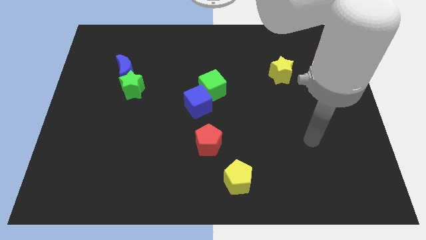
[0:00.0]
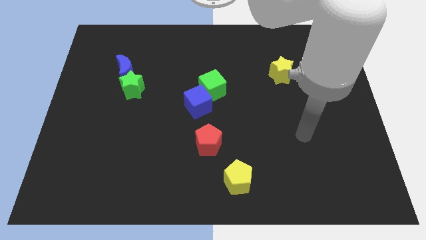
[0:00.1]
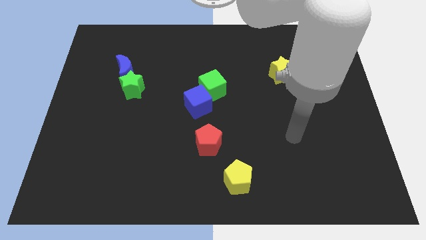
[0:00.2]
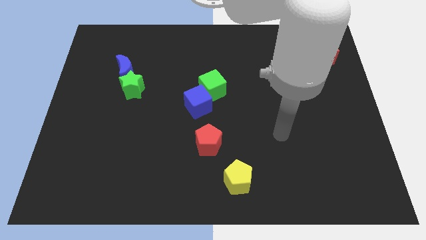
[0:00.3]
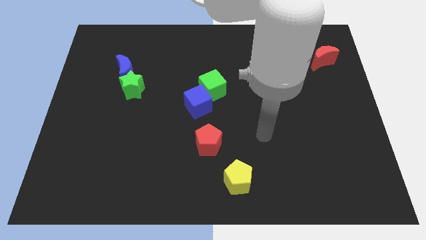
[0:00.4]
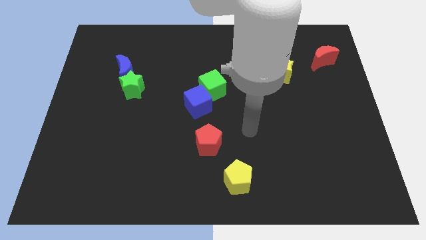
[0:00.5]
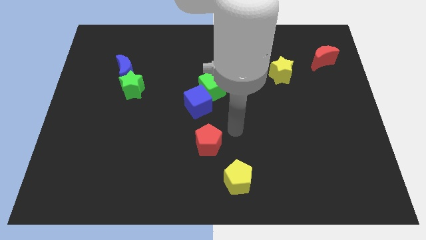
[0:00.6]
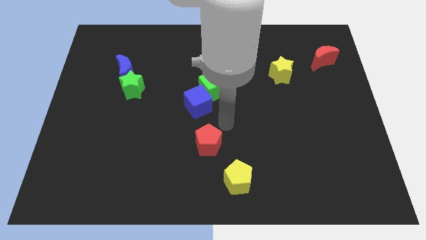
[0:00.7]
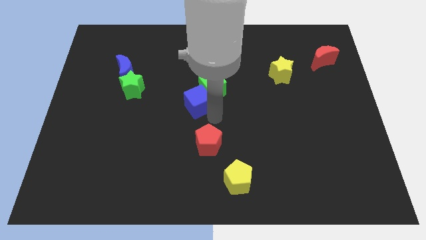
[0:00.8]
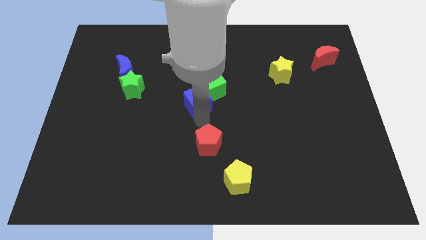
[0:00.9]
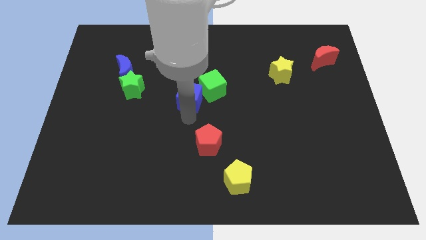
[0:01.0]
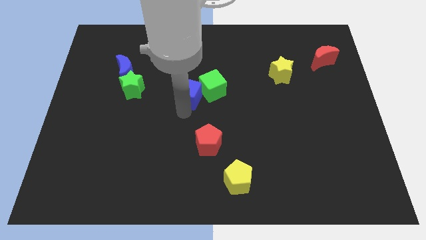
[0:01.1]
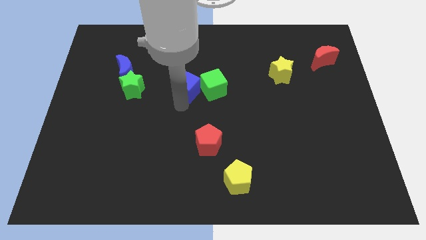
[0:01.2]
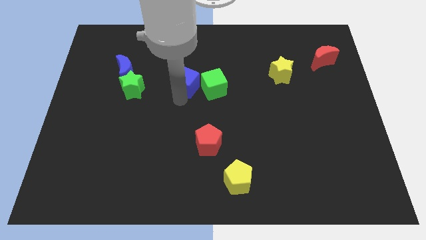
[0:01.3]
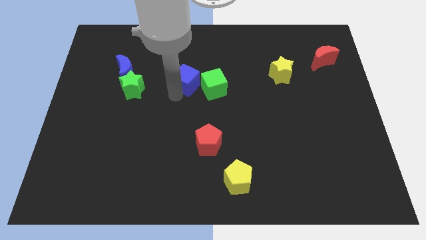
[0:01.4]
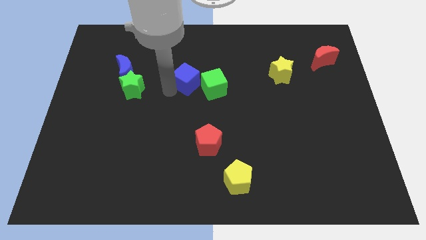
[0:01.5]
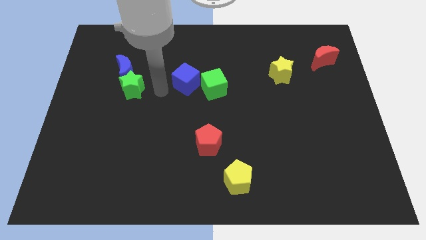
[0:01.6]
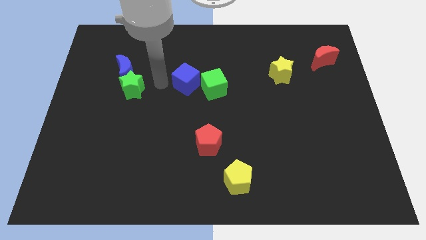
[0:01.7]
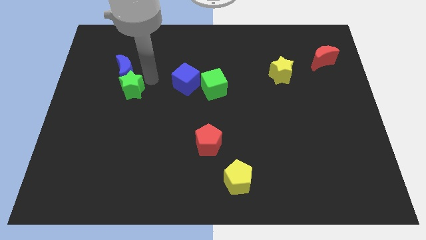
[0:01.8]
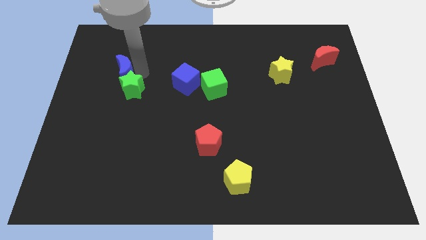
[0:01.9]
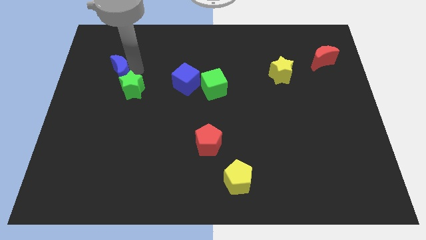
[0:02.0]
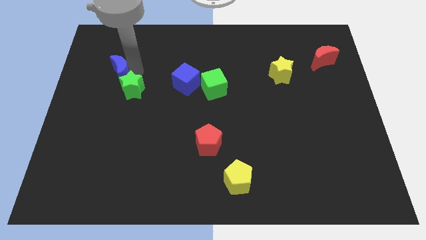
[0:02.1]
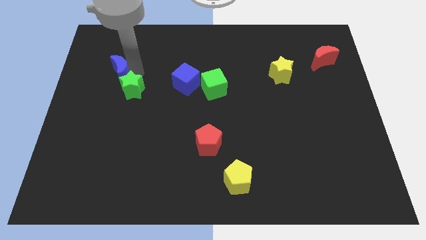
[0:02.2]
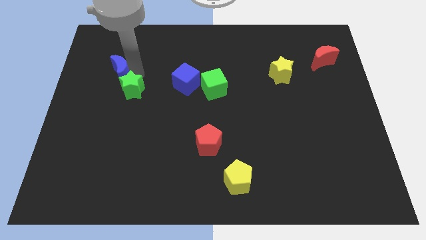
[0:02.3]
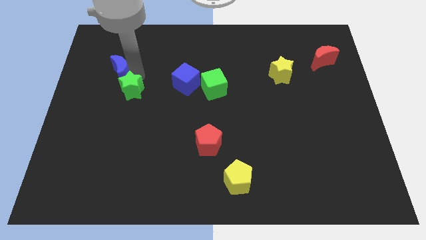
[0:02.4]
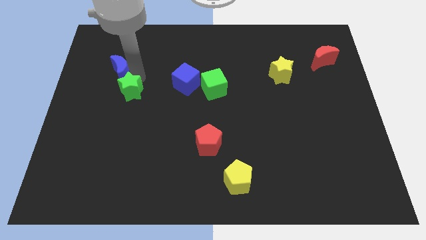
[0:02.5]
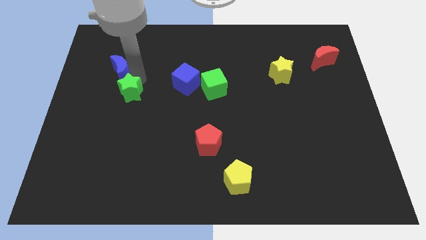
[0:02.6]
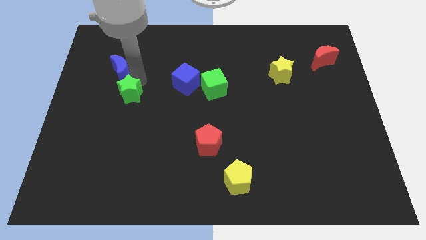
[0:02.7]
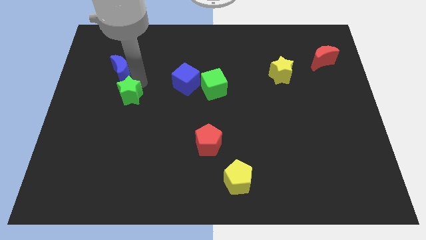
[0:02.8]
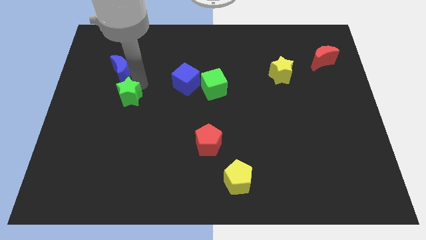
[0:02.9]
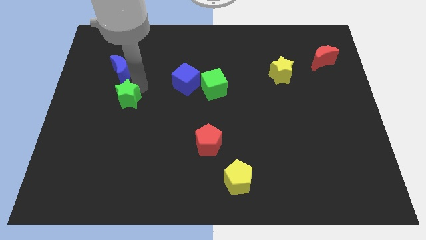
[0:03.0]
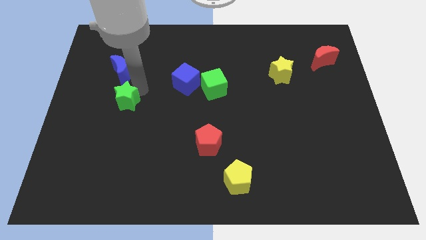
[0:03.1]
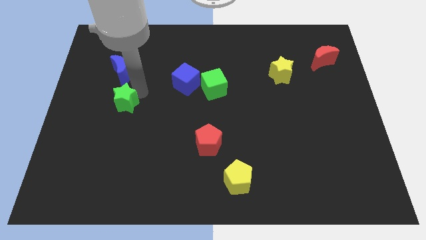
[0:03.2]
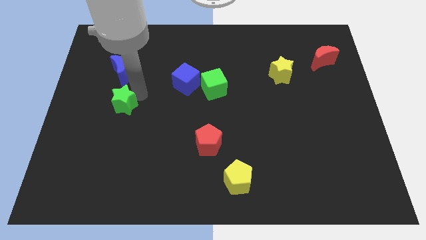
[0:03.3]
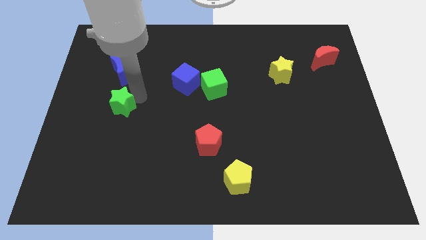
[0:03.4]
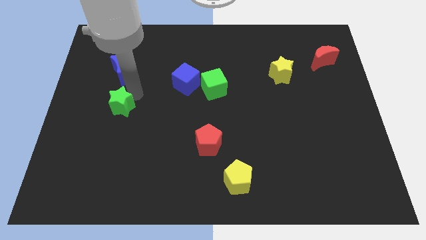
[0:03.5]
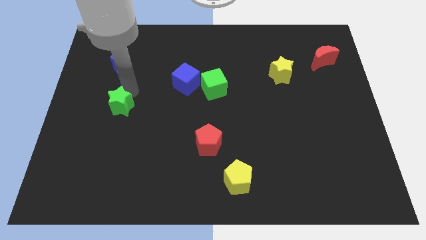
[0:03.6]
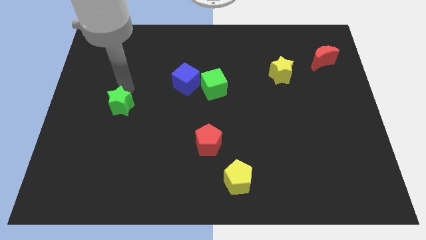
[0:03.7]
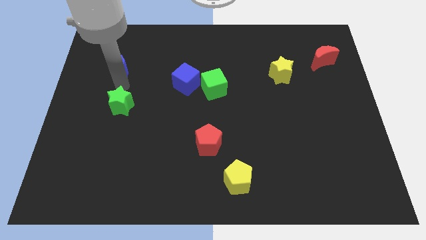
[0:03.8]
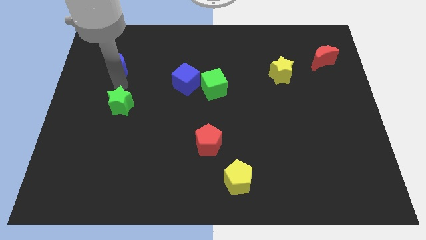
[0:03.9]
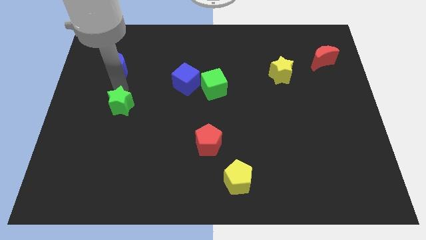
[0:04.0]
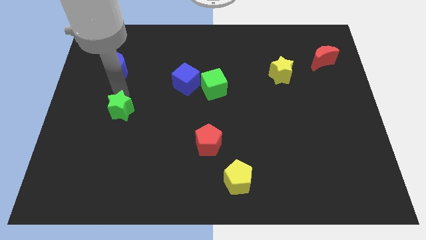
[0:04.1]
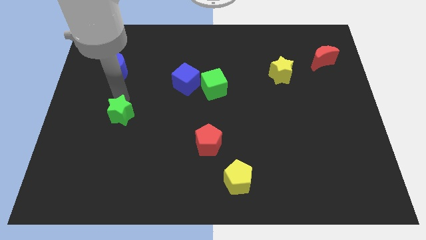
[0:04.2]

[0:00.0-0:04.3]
slide the green star downwards a little bit

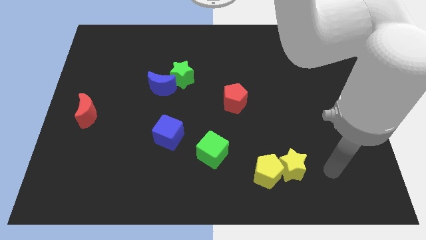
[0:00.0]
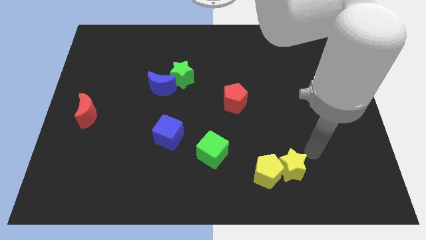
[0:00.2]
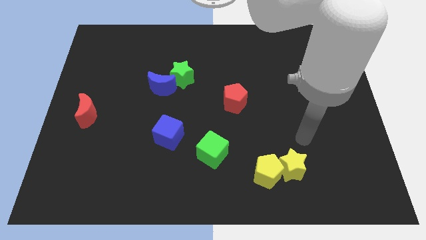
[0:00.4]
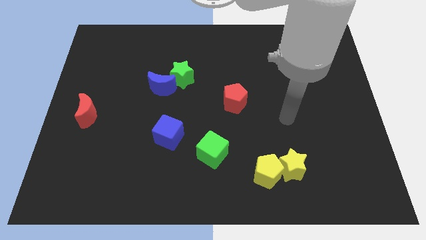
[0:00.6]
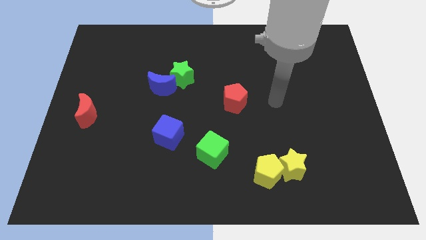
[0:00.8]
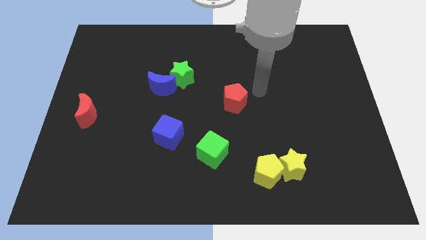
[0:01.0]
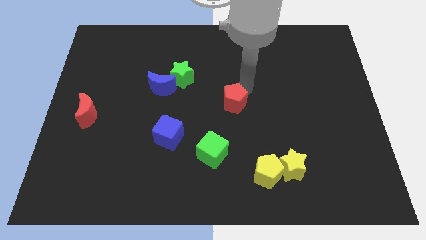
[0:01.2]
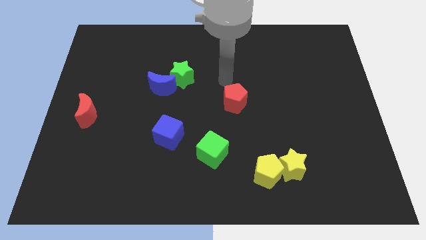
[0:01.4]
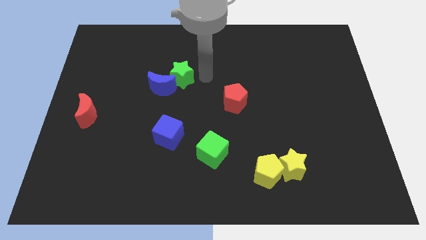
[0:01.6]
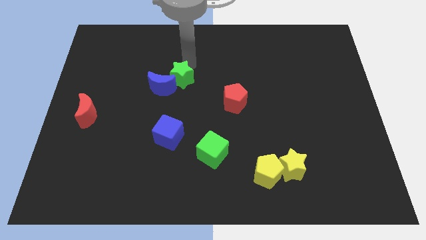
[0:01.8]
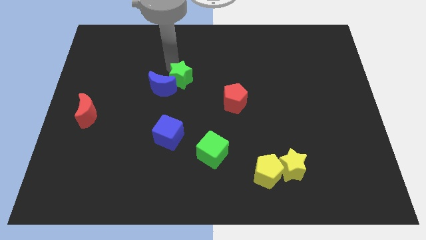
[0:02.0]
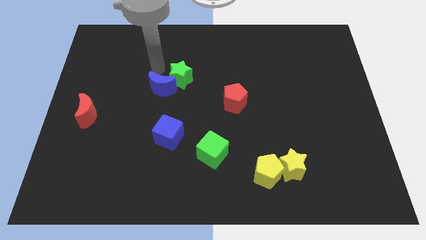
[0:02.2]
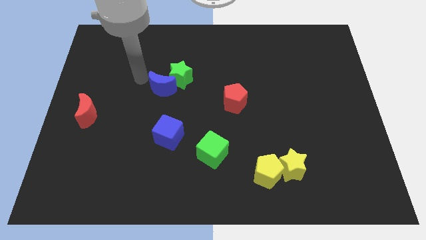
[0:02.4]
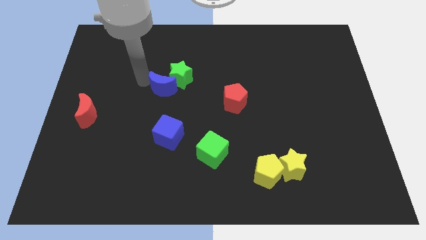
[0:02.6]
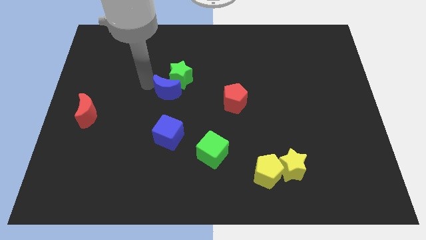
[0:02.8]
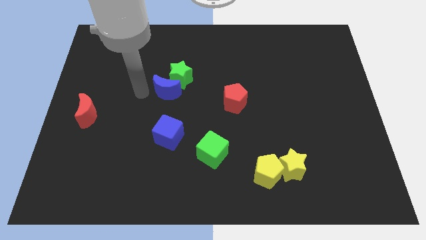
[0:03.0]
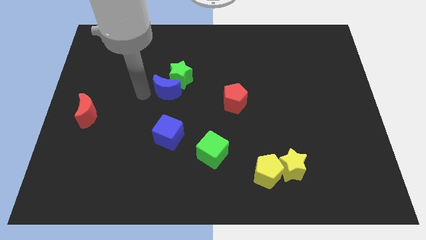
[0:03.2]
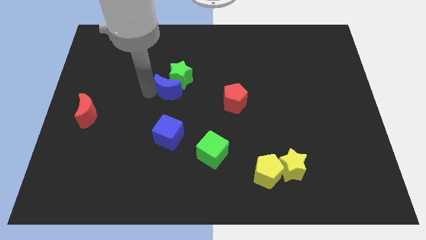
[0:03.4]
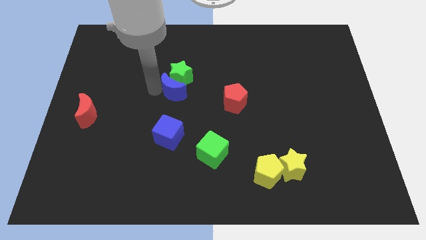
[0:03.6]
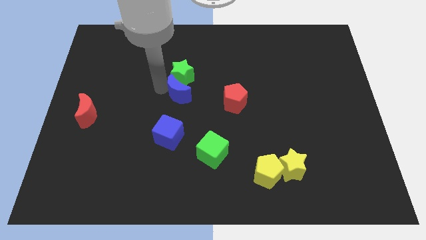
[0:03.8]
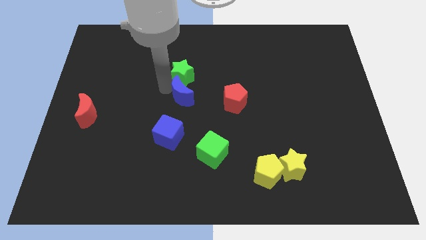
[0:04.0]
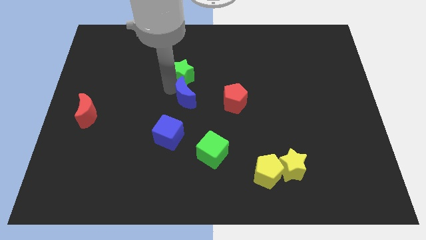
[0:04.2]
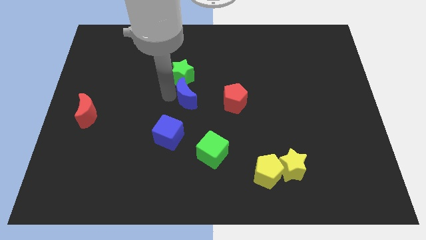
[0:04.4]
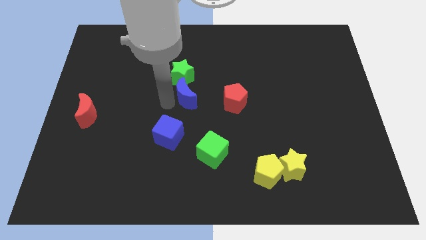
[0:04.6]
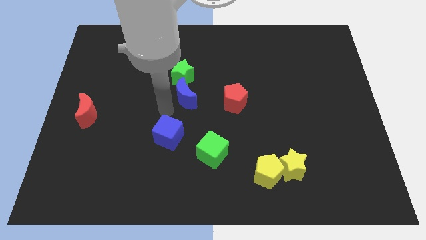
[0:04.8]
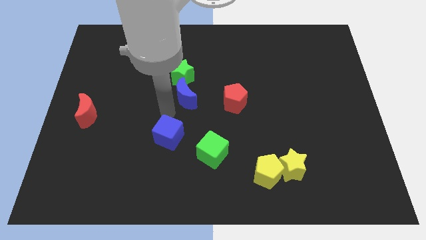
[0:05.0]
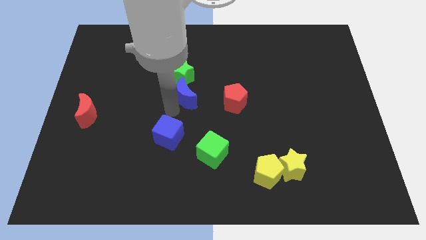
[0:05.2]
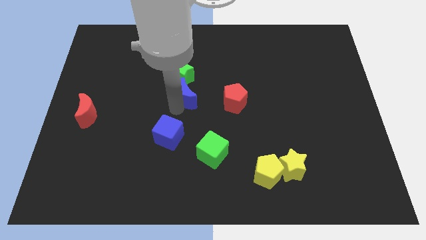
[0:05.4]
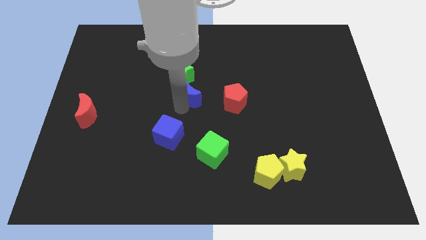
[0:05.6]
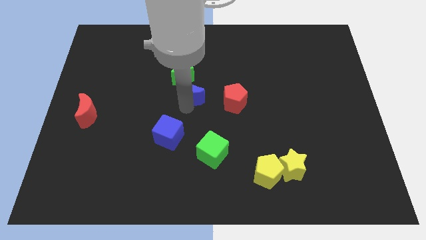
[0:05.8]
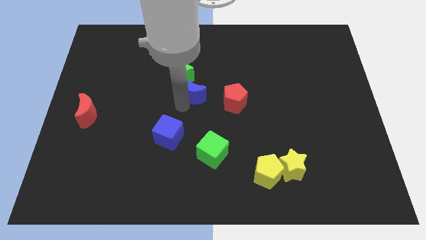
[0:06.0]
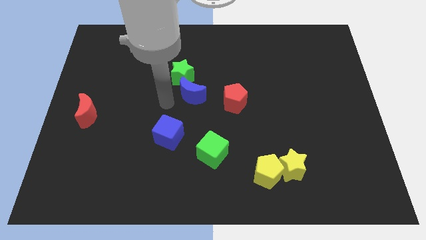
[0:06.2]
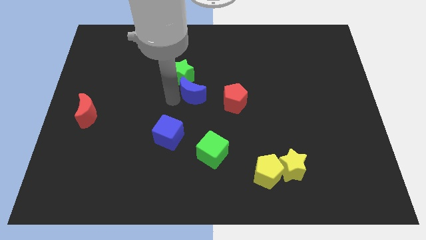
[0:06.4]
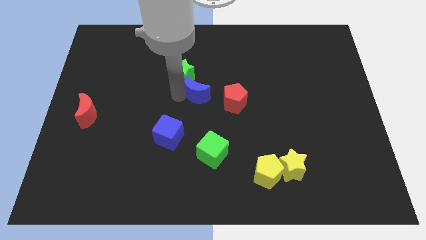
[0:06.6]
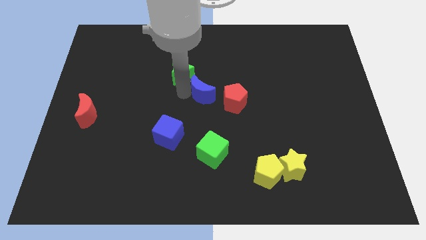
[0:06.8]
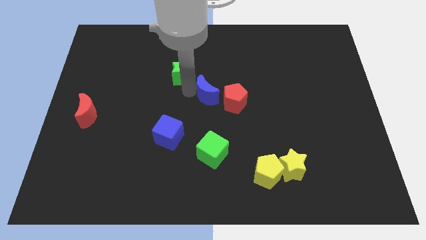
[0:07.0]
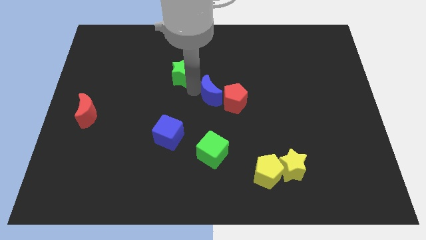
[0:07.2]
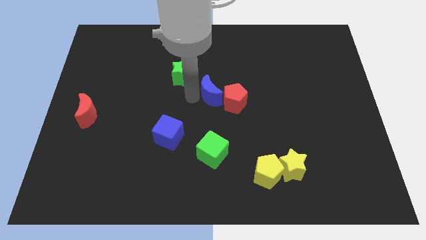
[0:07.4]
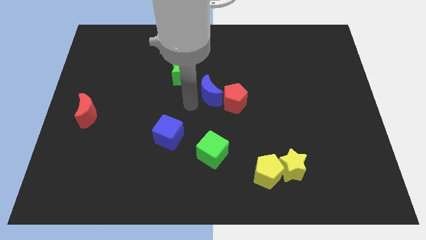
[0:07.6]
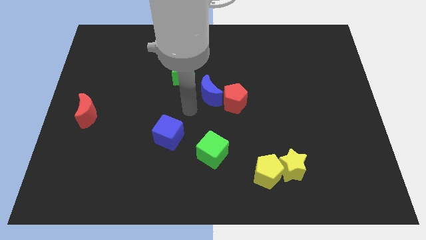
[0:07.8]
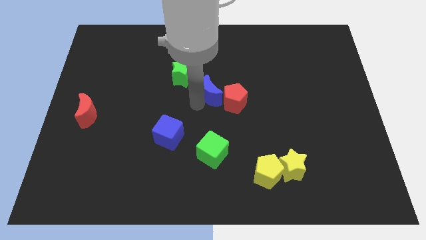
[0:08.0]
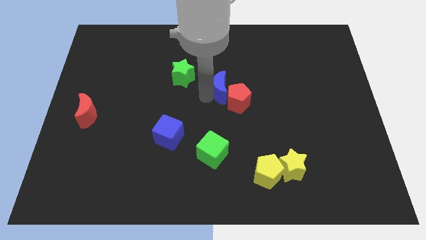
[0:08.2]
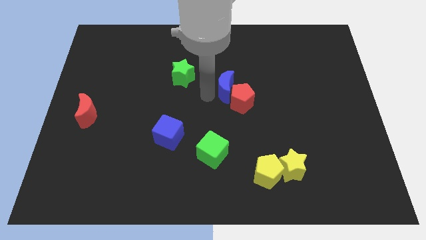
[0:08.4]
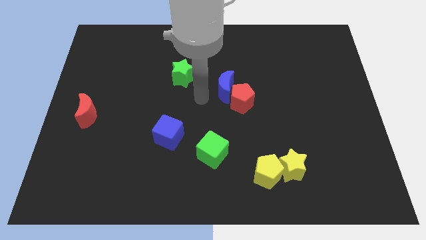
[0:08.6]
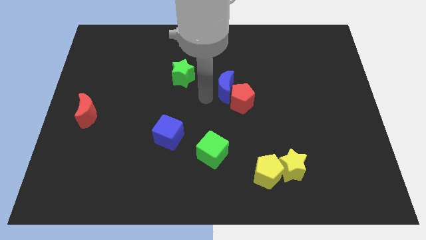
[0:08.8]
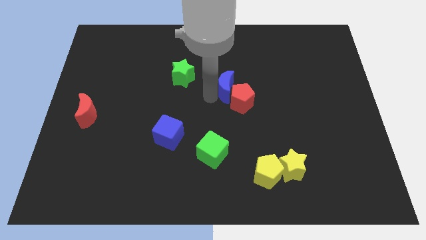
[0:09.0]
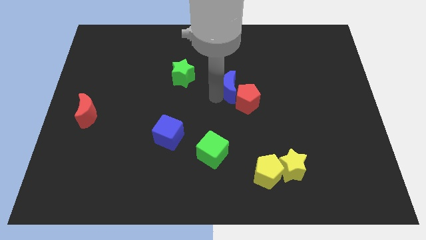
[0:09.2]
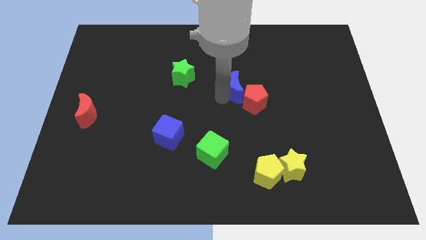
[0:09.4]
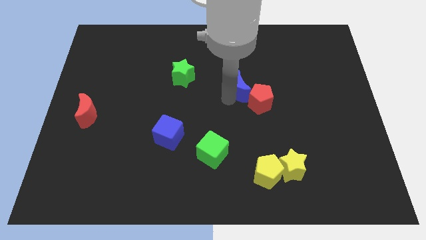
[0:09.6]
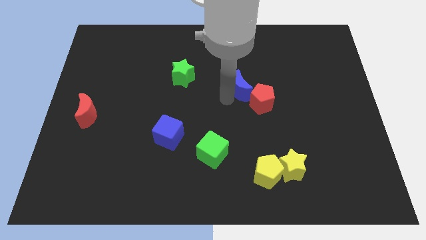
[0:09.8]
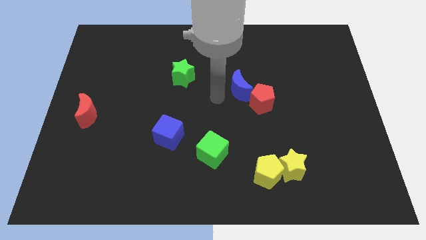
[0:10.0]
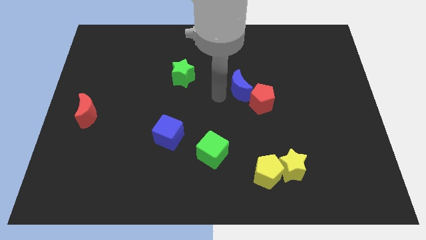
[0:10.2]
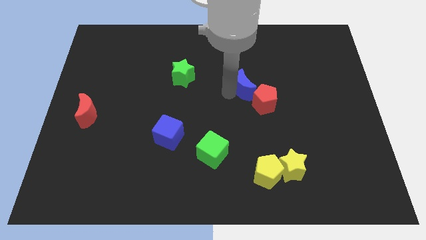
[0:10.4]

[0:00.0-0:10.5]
move the blue moon right
